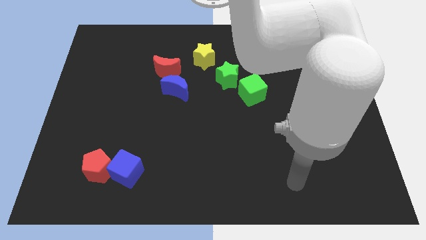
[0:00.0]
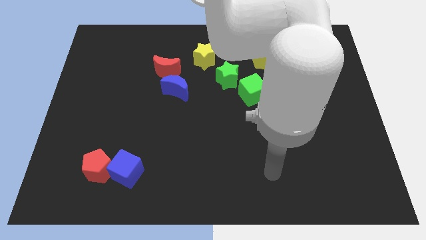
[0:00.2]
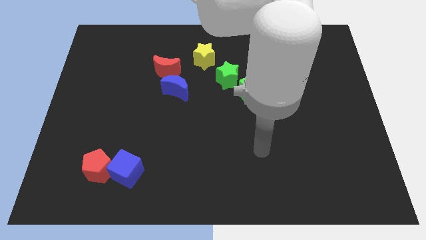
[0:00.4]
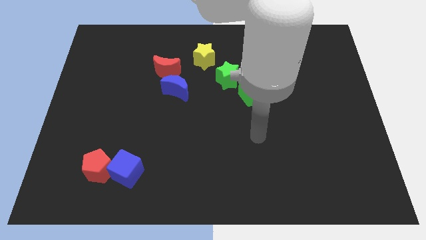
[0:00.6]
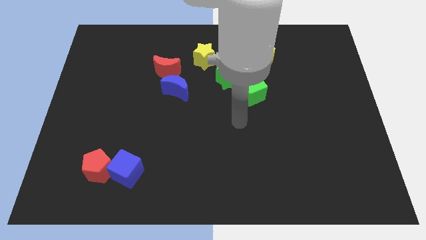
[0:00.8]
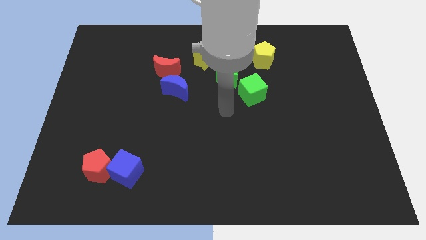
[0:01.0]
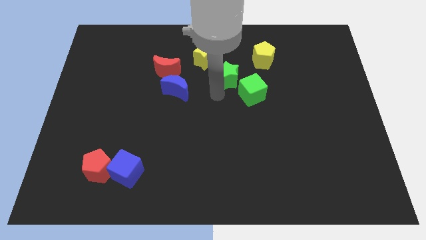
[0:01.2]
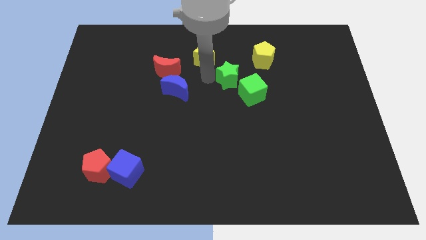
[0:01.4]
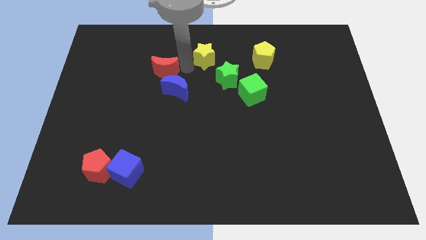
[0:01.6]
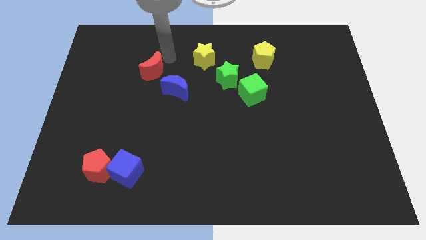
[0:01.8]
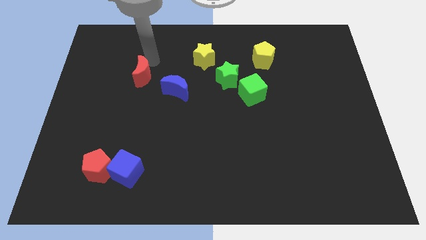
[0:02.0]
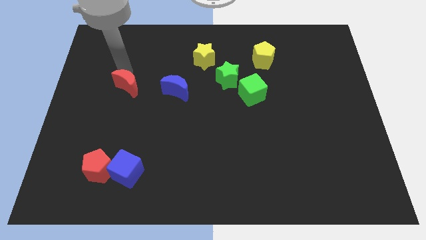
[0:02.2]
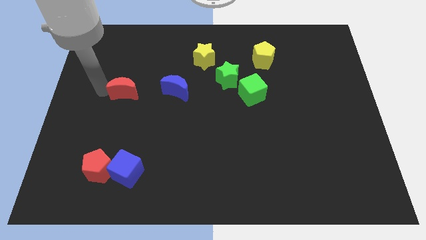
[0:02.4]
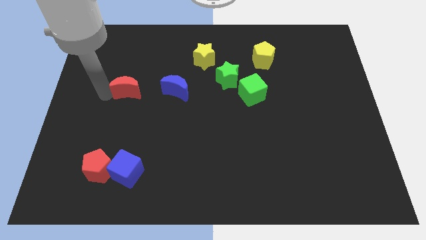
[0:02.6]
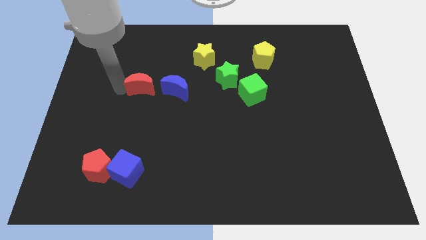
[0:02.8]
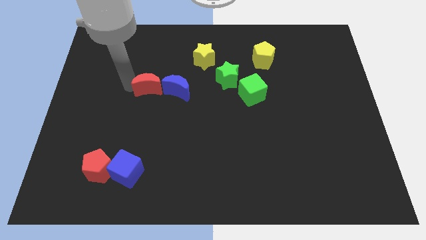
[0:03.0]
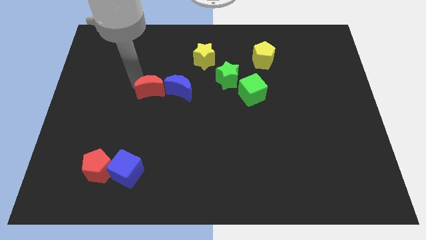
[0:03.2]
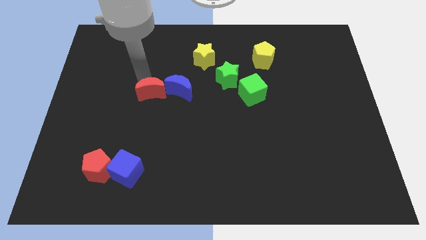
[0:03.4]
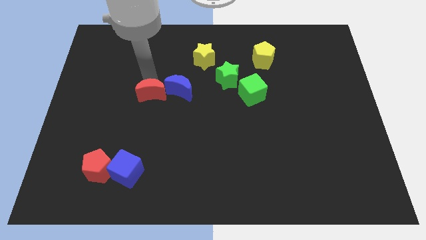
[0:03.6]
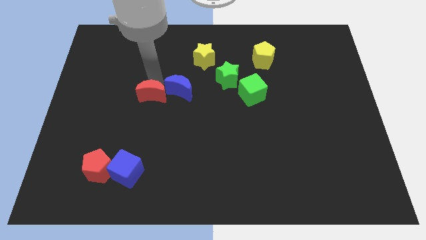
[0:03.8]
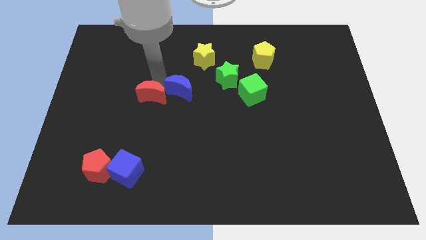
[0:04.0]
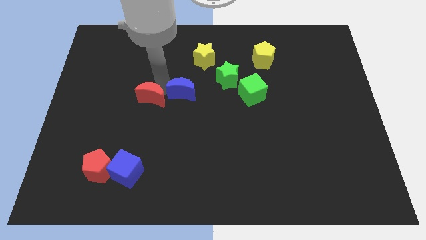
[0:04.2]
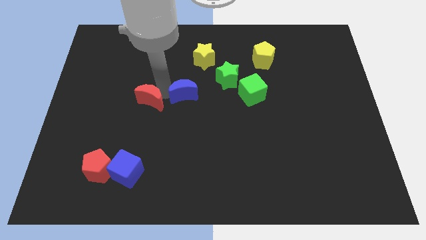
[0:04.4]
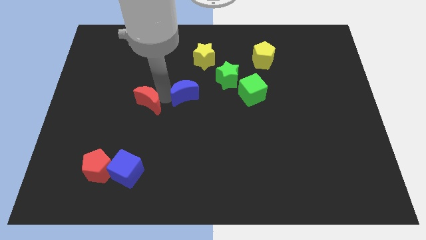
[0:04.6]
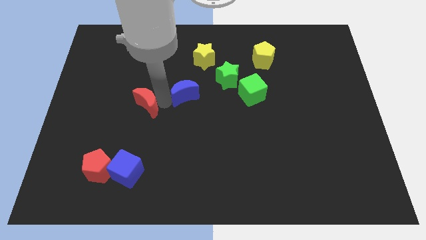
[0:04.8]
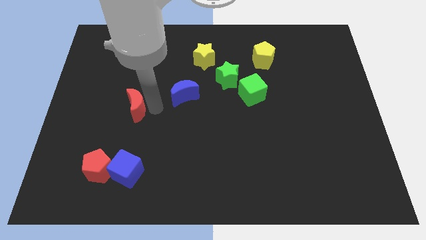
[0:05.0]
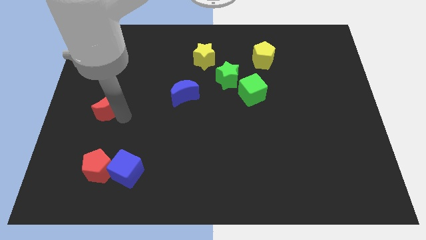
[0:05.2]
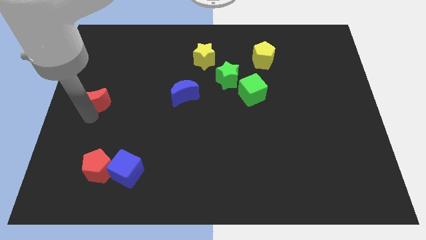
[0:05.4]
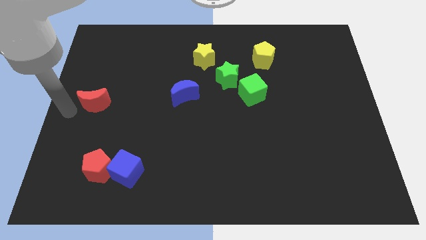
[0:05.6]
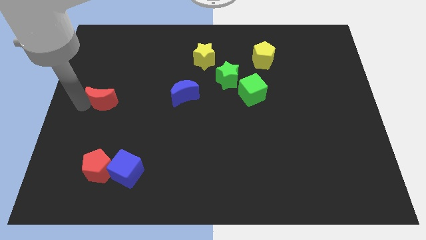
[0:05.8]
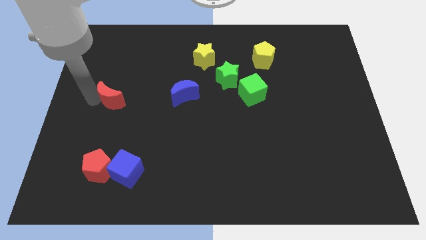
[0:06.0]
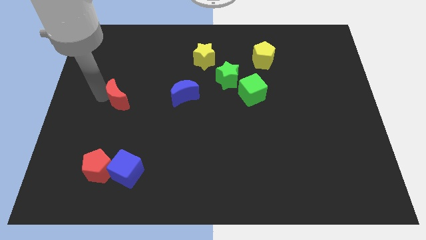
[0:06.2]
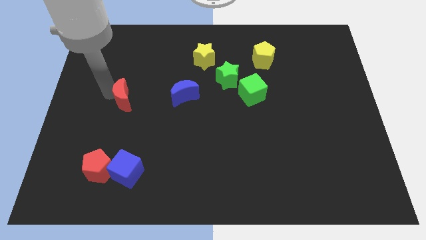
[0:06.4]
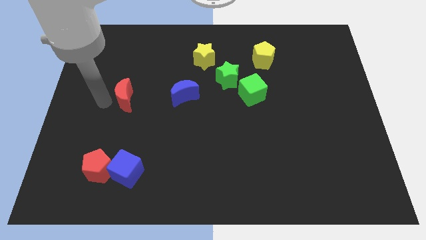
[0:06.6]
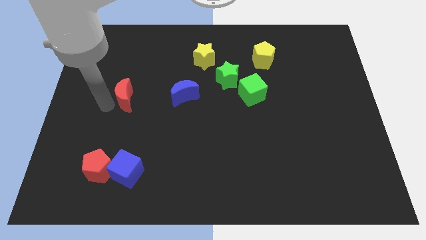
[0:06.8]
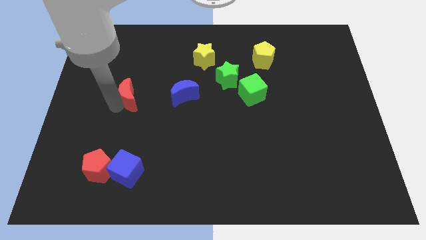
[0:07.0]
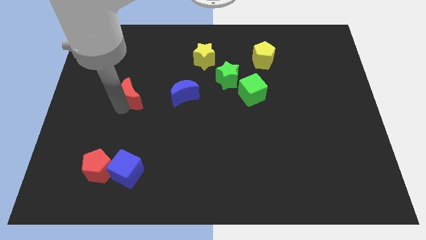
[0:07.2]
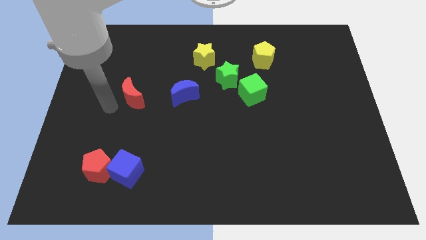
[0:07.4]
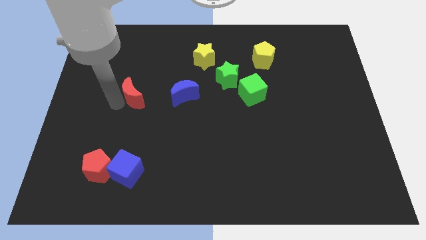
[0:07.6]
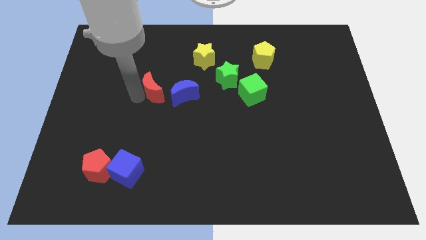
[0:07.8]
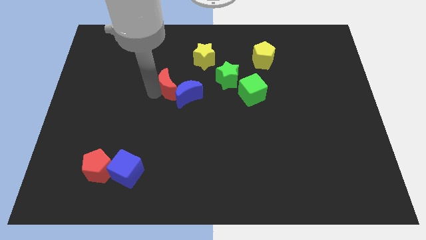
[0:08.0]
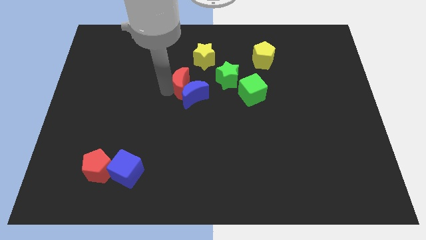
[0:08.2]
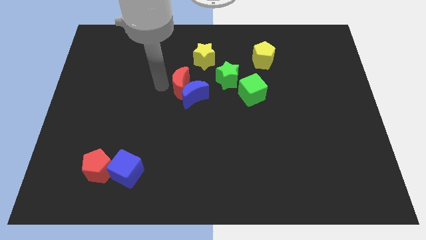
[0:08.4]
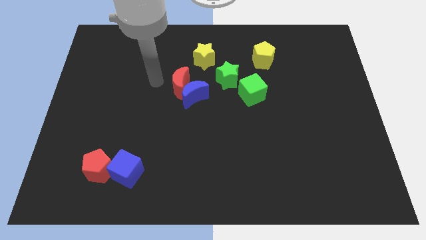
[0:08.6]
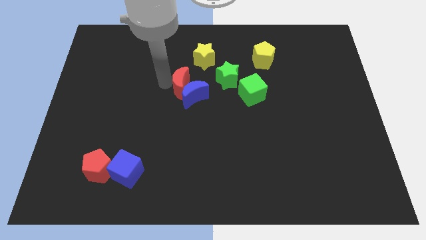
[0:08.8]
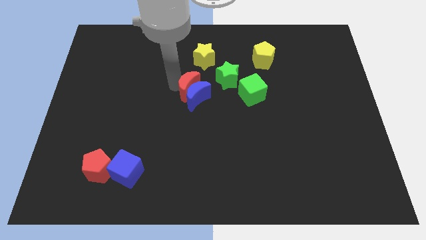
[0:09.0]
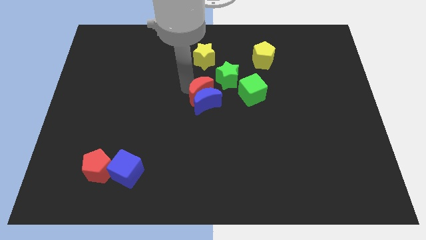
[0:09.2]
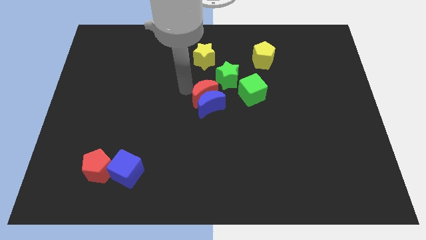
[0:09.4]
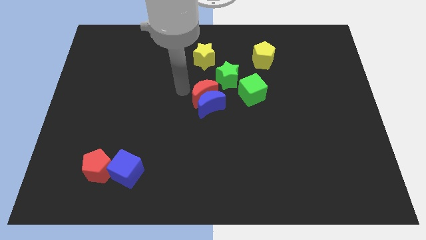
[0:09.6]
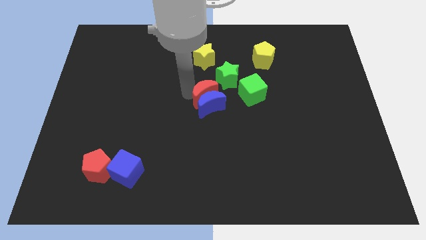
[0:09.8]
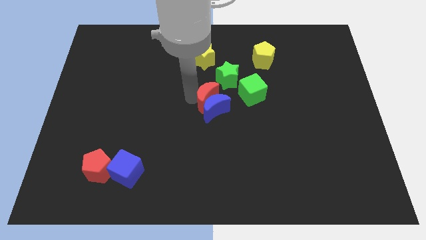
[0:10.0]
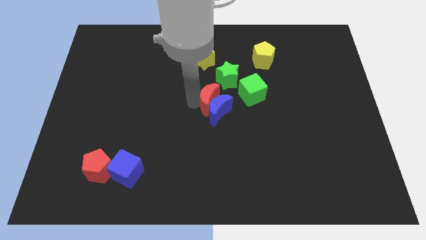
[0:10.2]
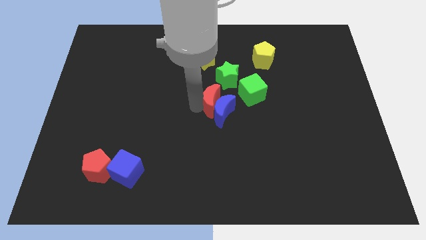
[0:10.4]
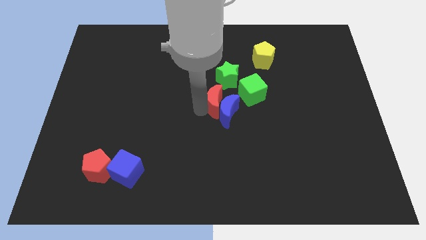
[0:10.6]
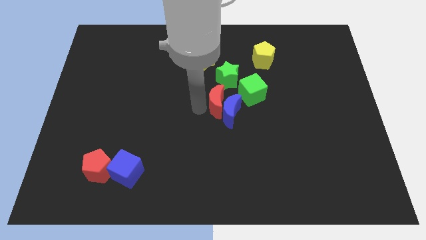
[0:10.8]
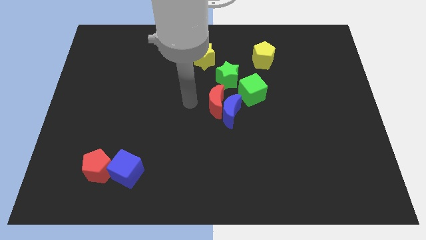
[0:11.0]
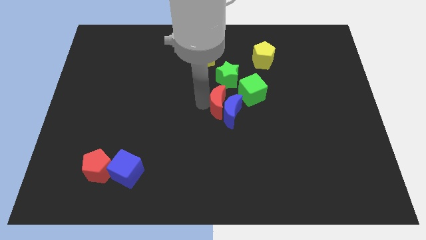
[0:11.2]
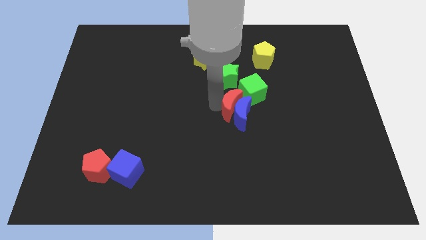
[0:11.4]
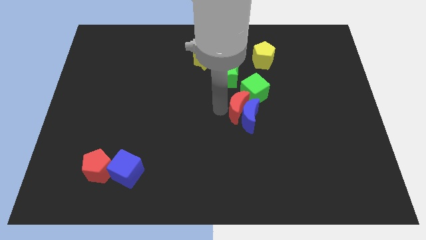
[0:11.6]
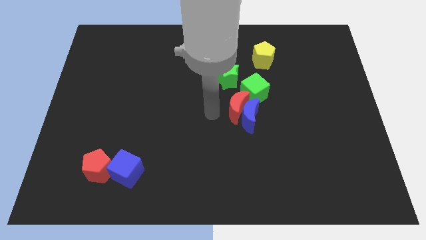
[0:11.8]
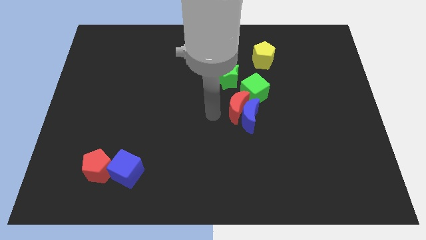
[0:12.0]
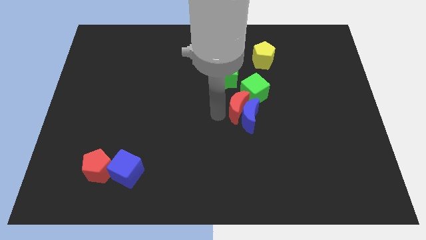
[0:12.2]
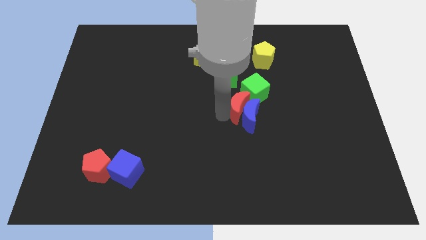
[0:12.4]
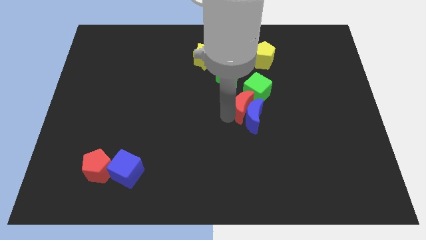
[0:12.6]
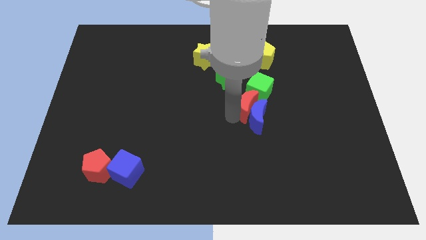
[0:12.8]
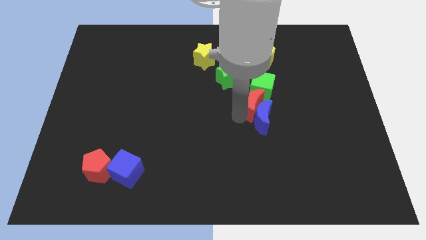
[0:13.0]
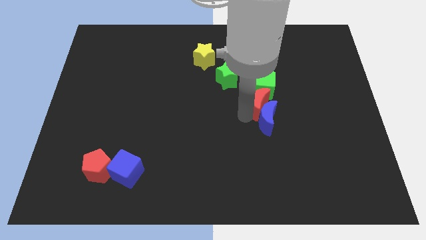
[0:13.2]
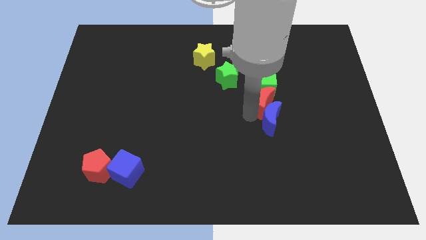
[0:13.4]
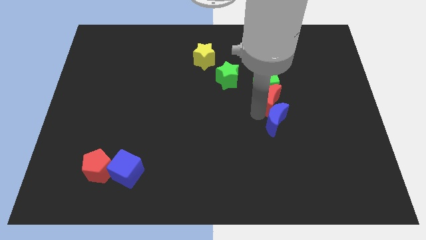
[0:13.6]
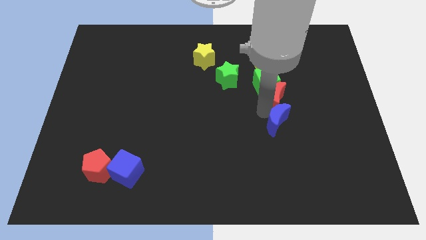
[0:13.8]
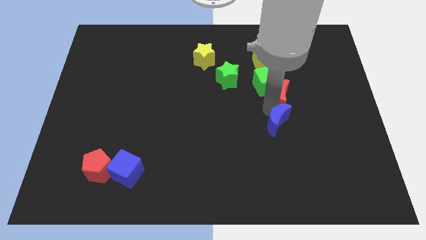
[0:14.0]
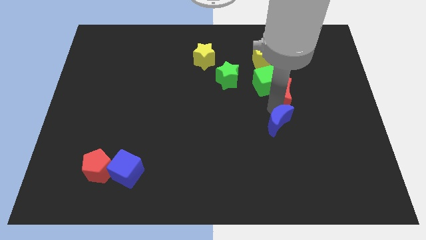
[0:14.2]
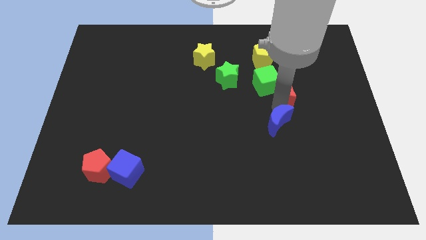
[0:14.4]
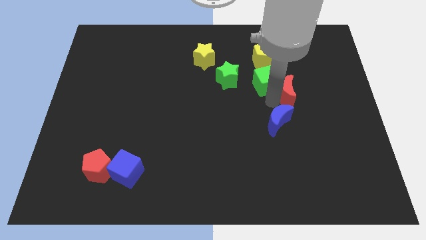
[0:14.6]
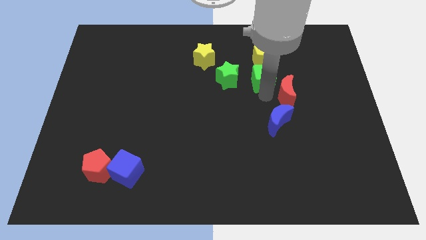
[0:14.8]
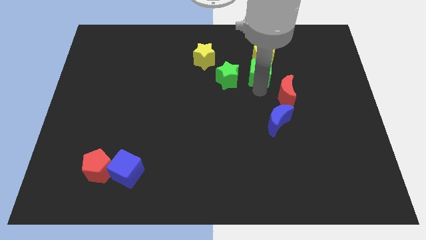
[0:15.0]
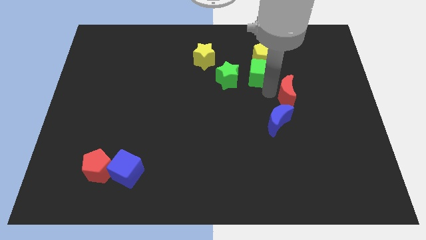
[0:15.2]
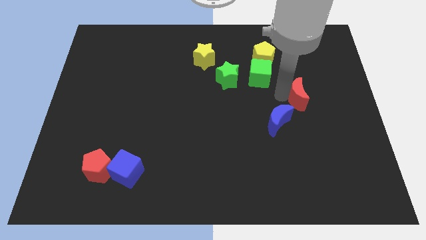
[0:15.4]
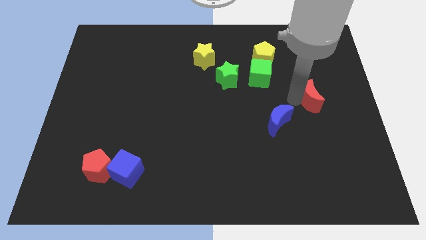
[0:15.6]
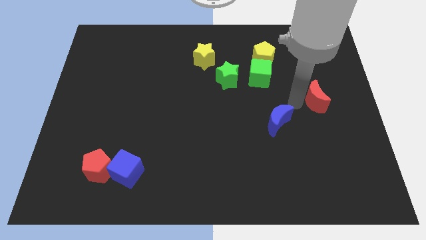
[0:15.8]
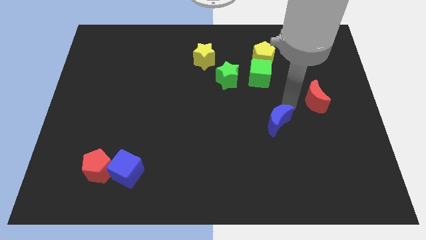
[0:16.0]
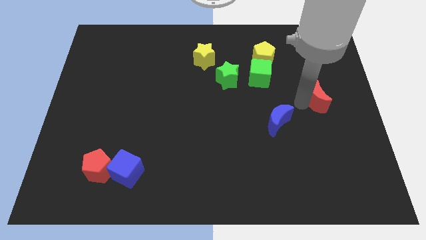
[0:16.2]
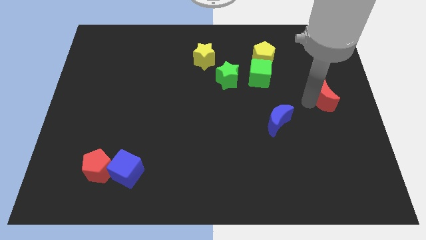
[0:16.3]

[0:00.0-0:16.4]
slide the red moon to the right side of the board
